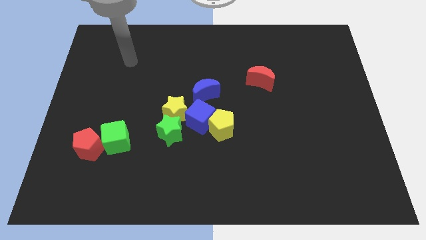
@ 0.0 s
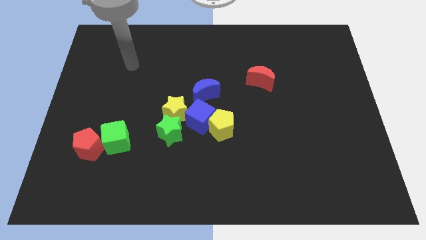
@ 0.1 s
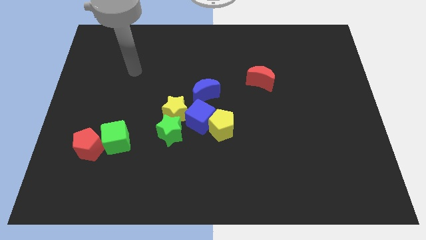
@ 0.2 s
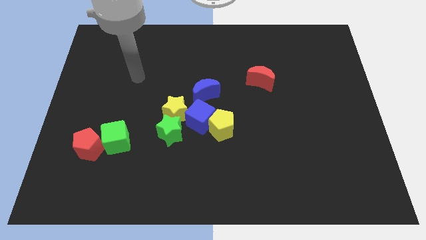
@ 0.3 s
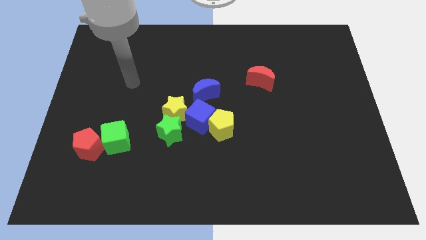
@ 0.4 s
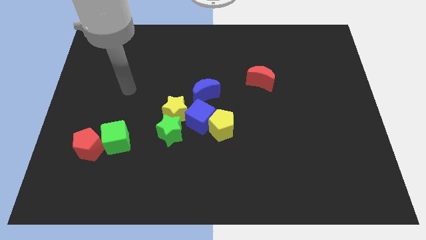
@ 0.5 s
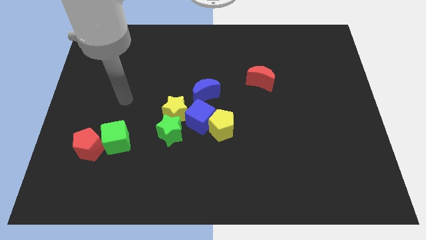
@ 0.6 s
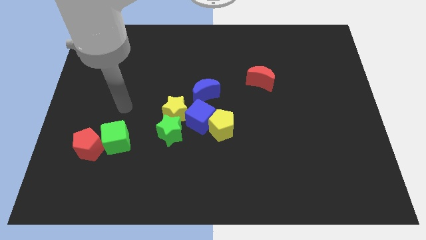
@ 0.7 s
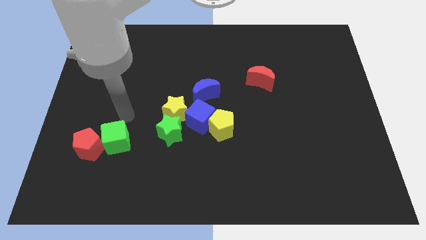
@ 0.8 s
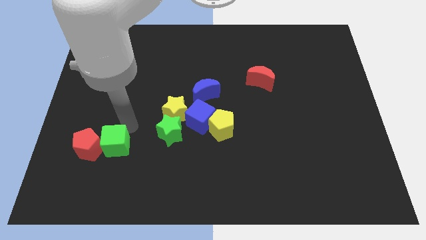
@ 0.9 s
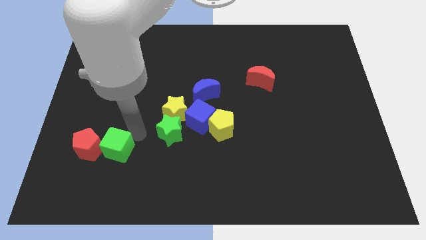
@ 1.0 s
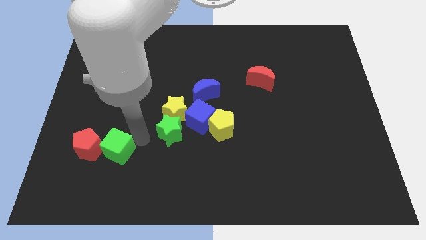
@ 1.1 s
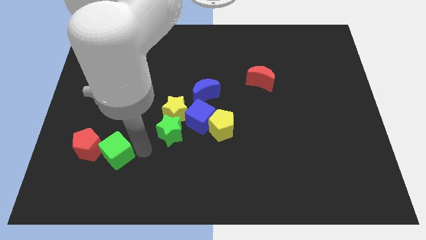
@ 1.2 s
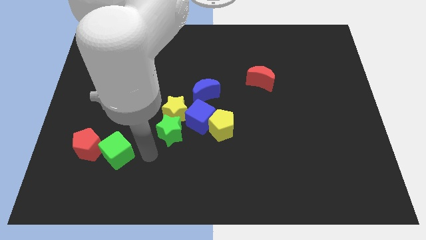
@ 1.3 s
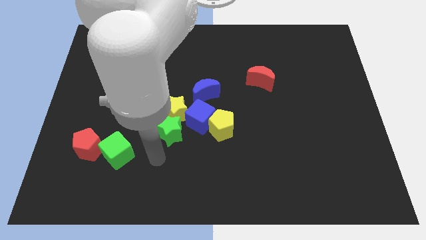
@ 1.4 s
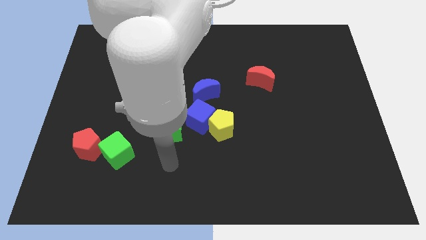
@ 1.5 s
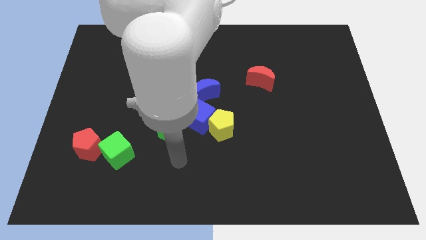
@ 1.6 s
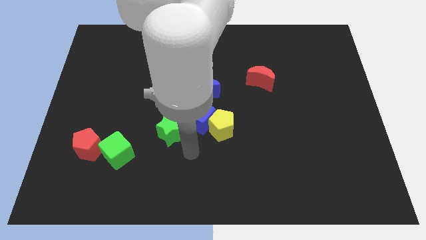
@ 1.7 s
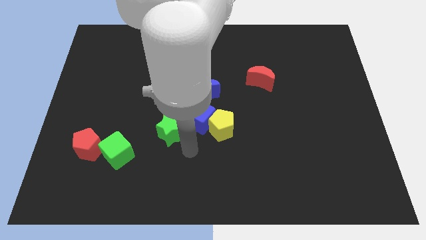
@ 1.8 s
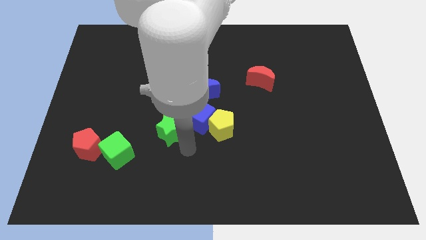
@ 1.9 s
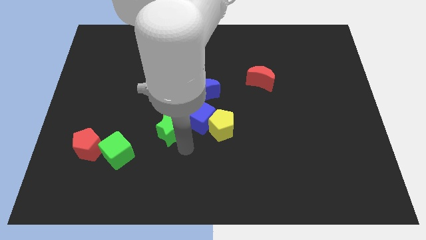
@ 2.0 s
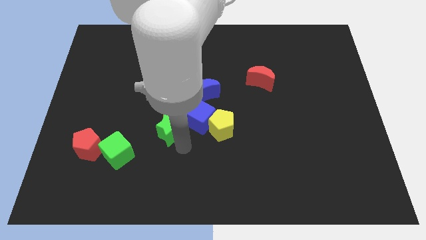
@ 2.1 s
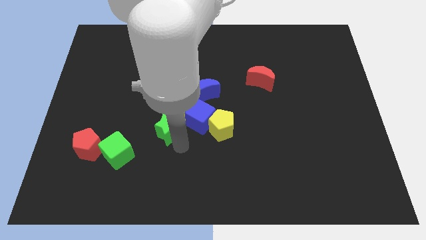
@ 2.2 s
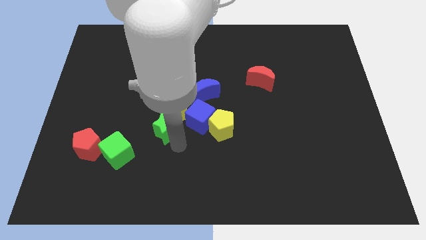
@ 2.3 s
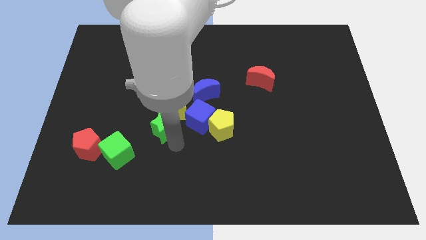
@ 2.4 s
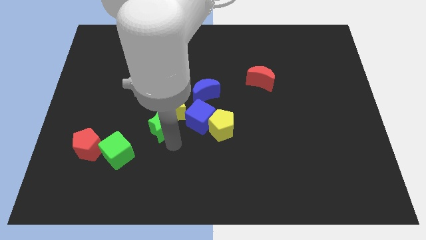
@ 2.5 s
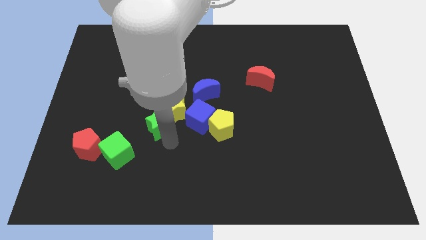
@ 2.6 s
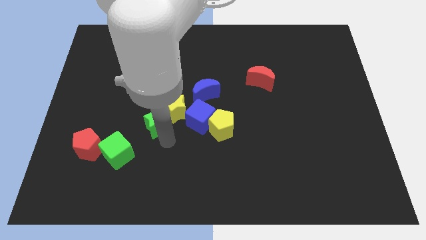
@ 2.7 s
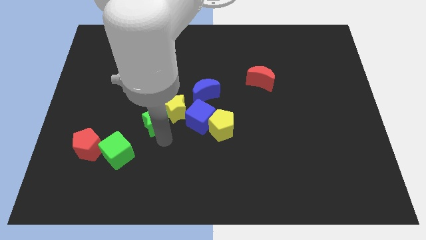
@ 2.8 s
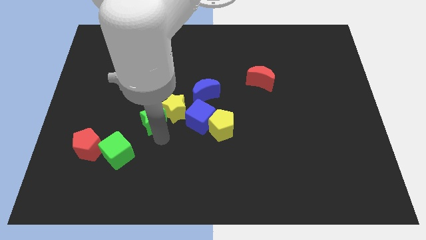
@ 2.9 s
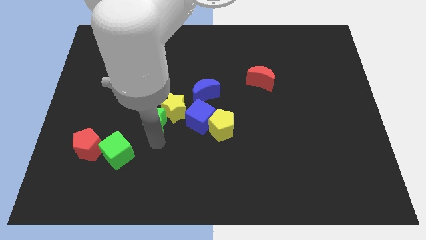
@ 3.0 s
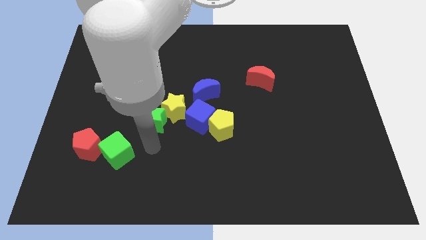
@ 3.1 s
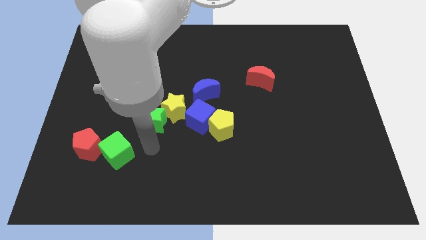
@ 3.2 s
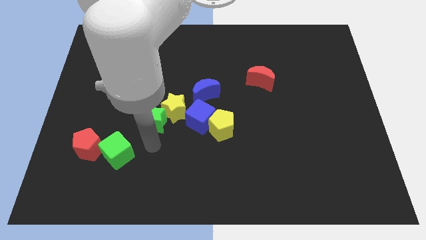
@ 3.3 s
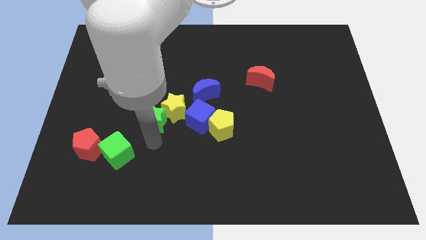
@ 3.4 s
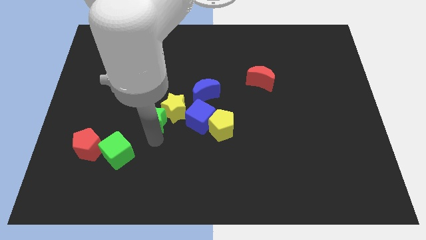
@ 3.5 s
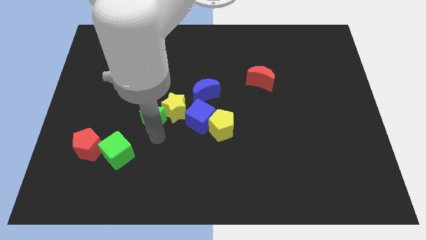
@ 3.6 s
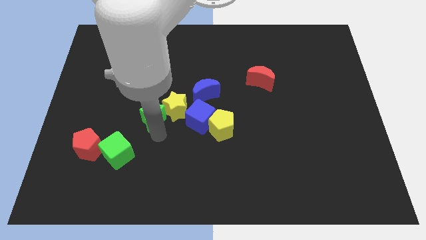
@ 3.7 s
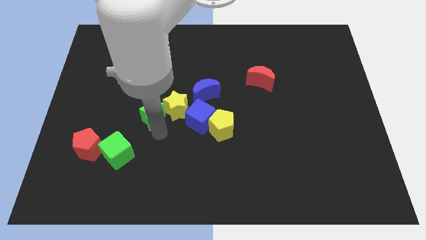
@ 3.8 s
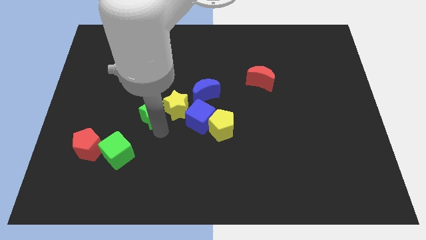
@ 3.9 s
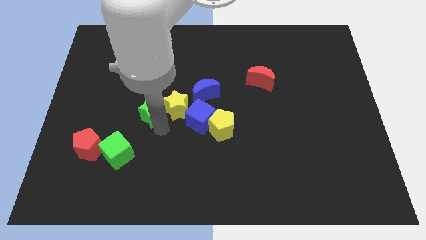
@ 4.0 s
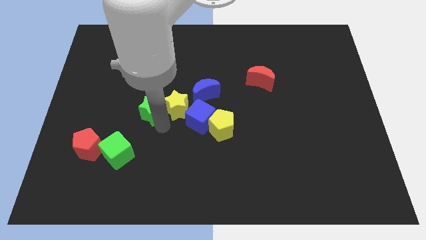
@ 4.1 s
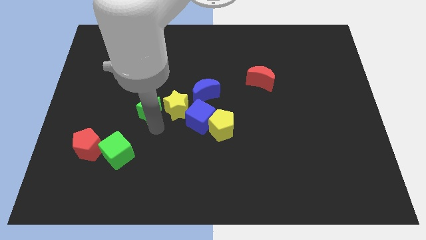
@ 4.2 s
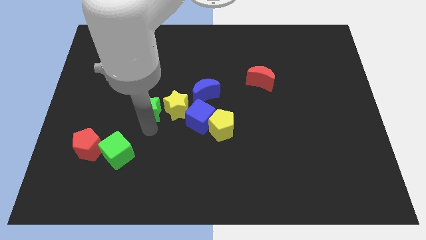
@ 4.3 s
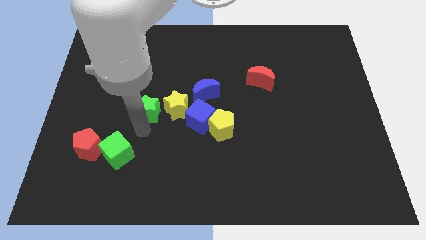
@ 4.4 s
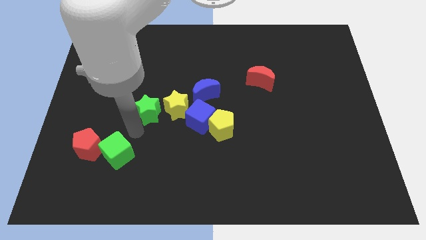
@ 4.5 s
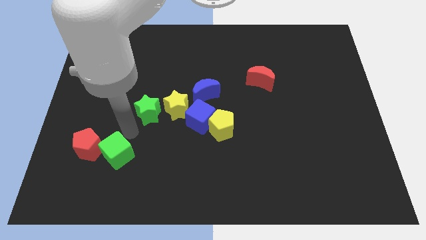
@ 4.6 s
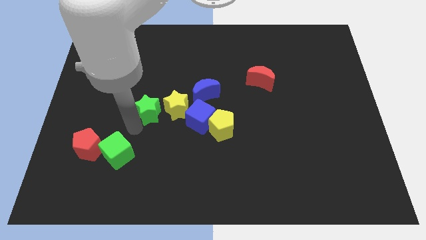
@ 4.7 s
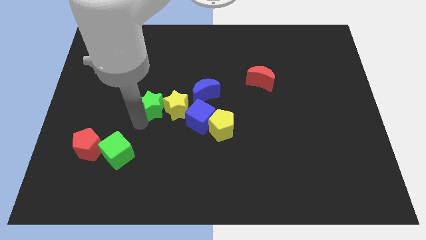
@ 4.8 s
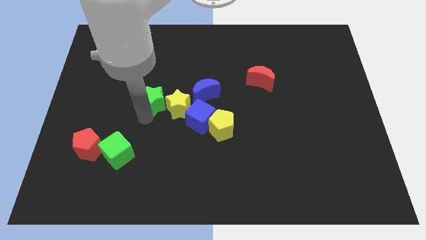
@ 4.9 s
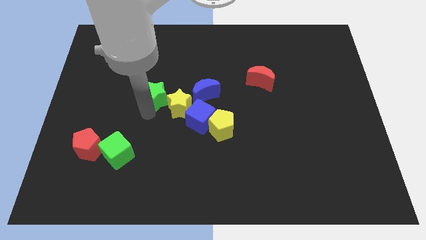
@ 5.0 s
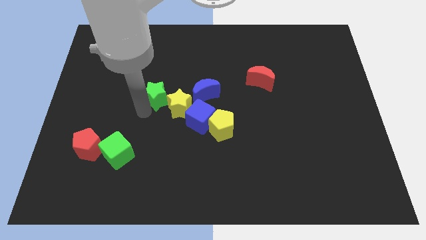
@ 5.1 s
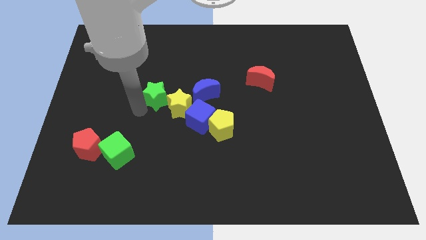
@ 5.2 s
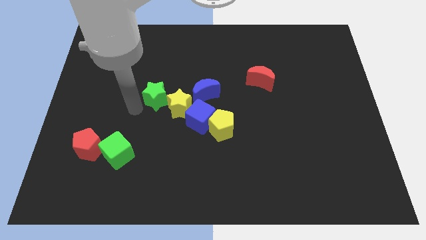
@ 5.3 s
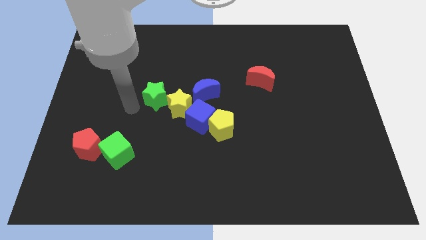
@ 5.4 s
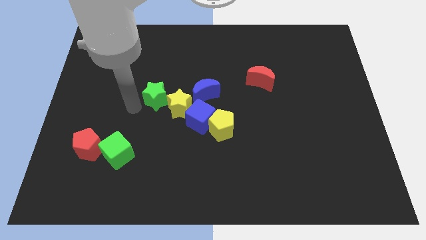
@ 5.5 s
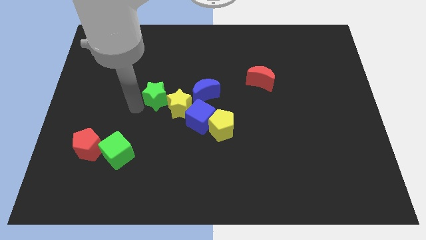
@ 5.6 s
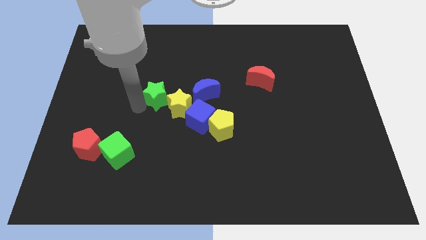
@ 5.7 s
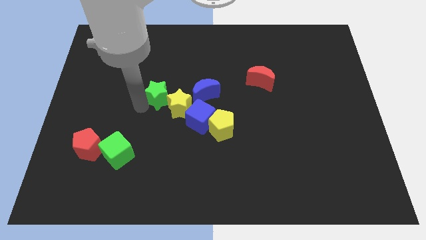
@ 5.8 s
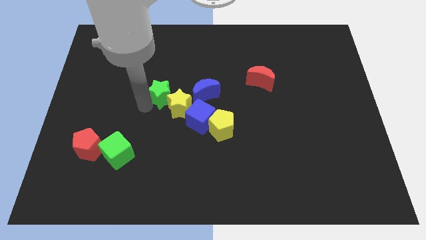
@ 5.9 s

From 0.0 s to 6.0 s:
move the green star above the yellow star

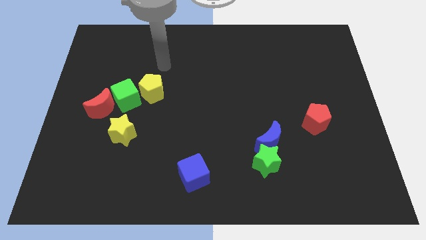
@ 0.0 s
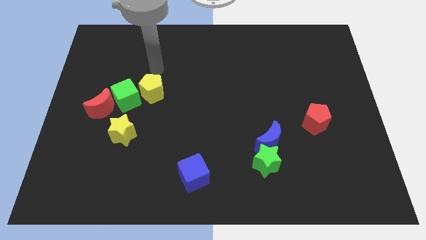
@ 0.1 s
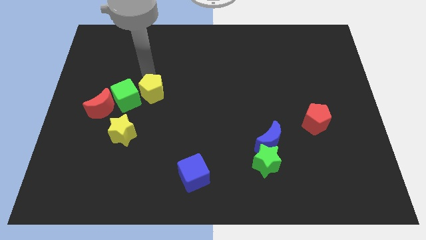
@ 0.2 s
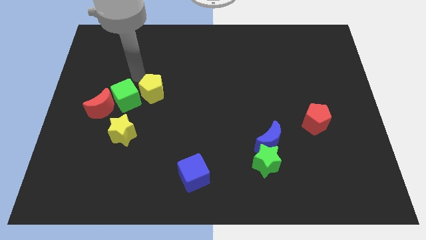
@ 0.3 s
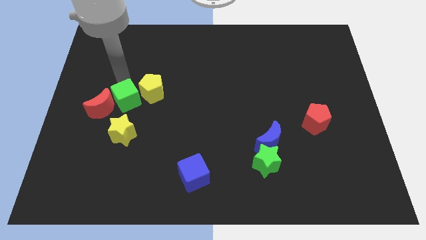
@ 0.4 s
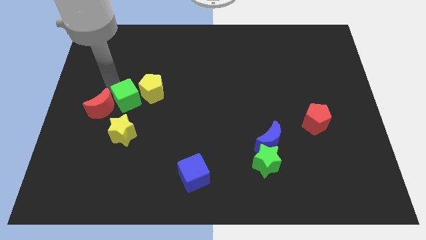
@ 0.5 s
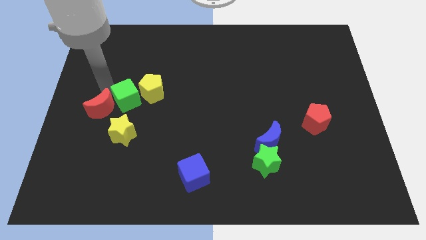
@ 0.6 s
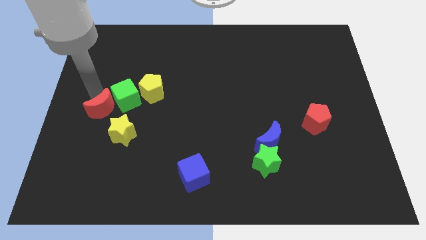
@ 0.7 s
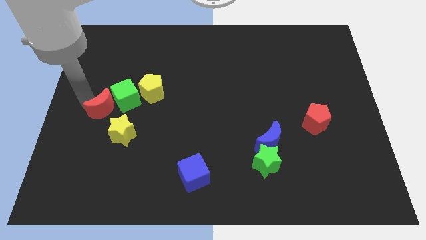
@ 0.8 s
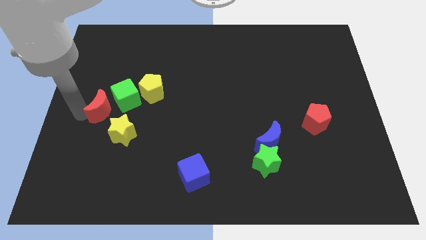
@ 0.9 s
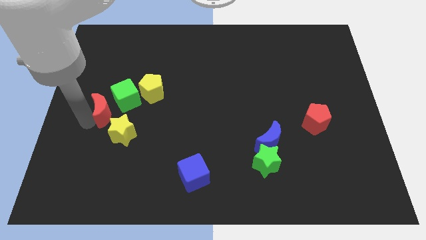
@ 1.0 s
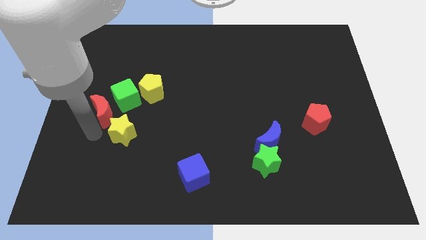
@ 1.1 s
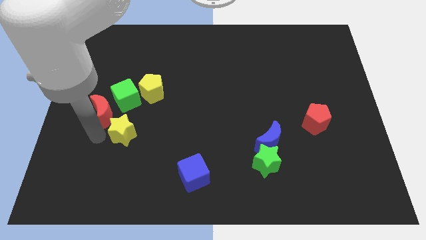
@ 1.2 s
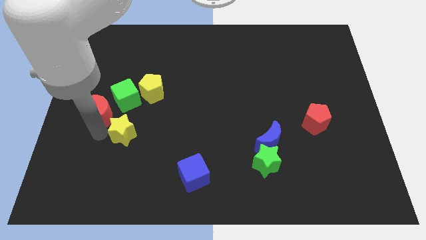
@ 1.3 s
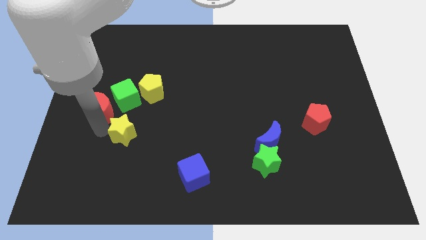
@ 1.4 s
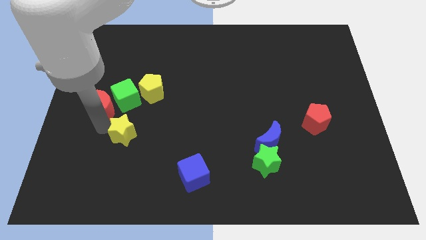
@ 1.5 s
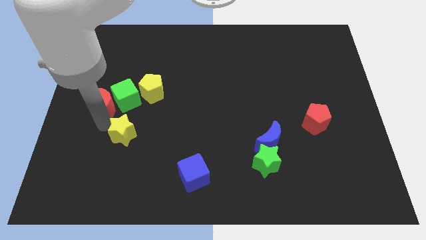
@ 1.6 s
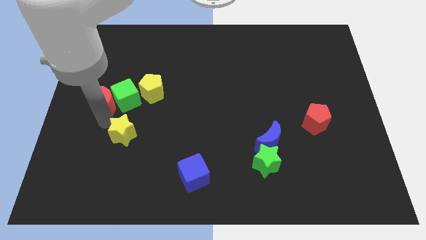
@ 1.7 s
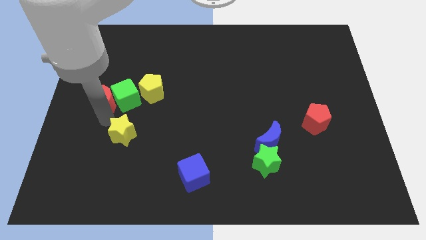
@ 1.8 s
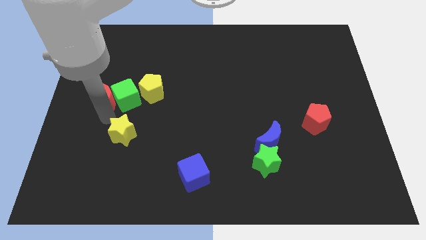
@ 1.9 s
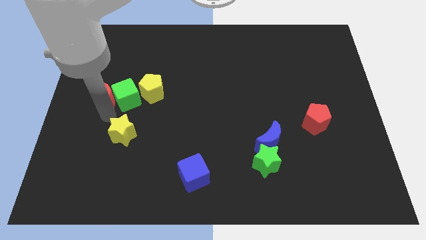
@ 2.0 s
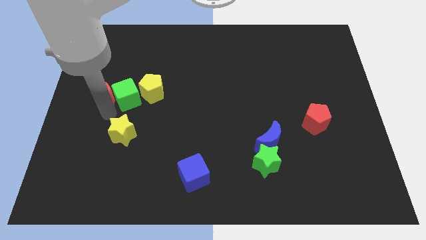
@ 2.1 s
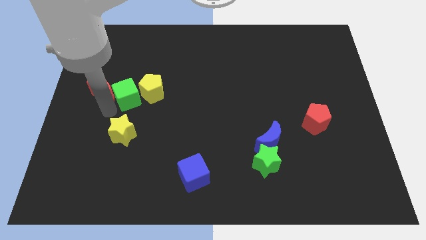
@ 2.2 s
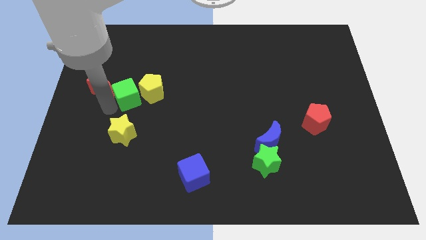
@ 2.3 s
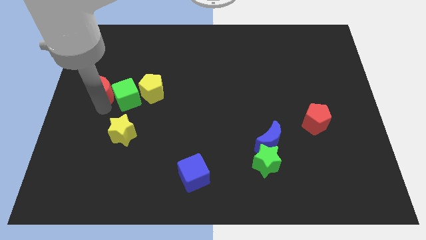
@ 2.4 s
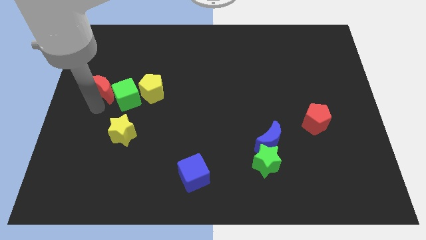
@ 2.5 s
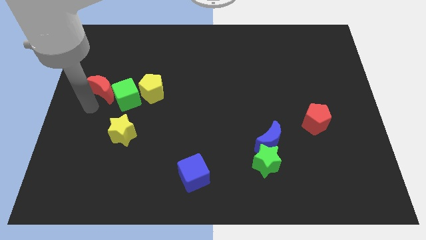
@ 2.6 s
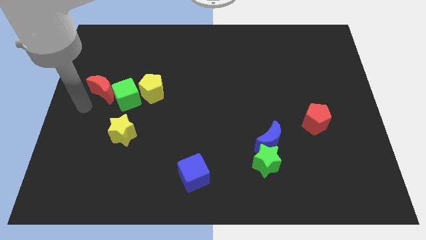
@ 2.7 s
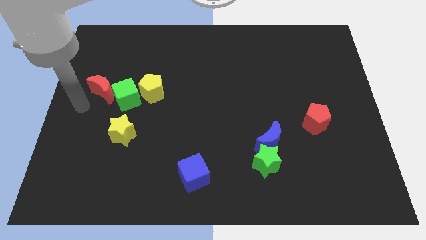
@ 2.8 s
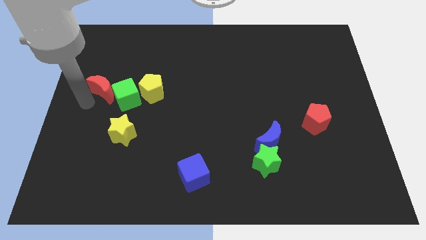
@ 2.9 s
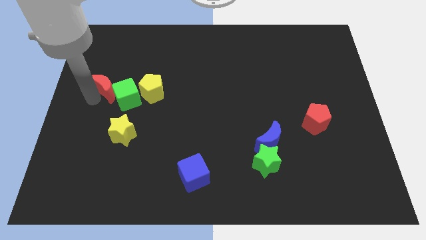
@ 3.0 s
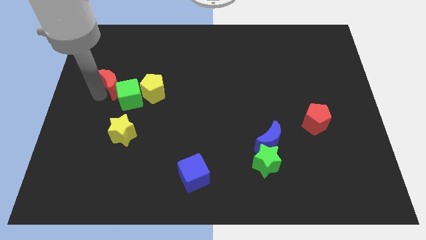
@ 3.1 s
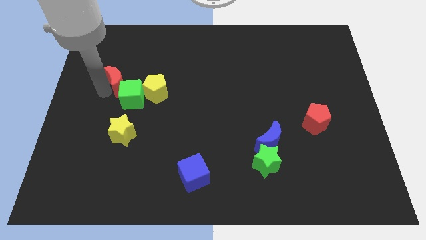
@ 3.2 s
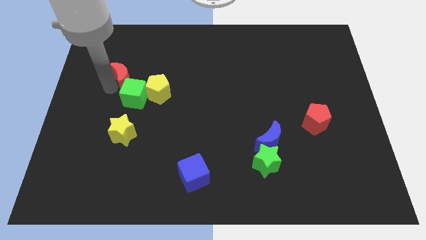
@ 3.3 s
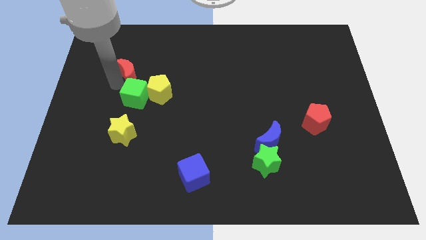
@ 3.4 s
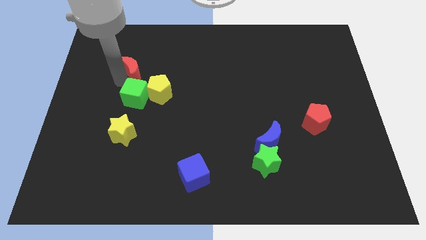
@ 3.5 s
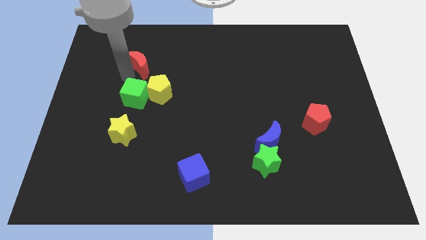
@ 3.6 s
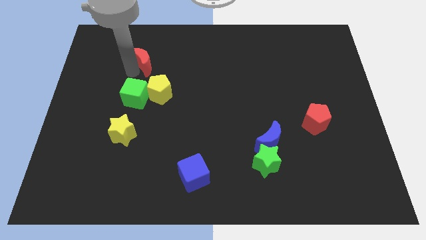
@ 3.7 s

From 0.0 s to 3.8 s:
push the red moon to the top side of the yellow pentagon
